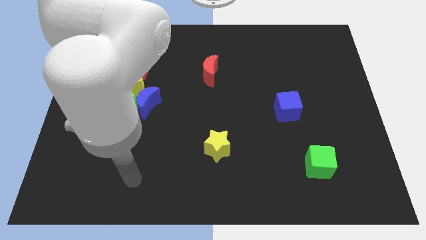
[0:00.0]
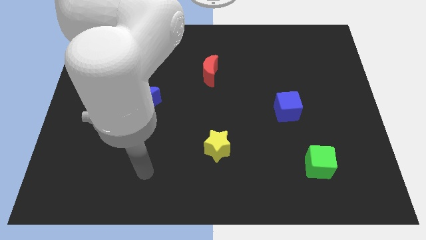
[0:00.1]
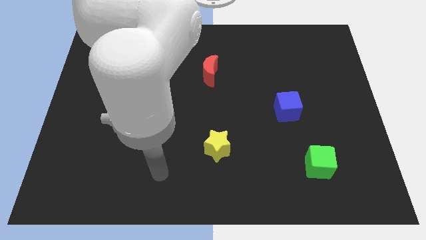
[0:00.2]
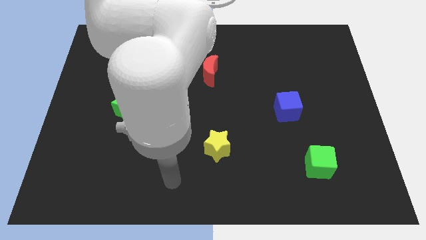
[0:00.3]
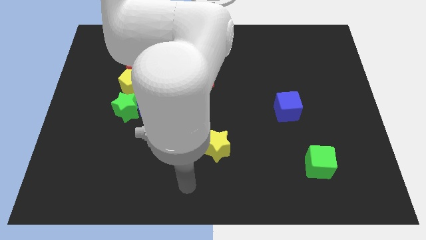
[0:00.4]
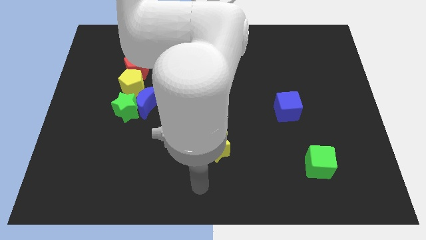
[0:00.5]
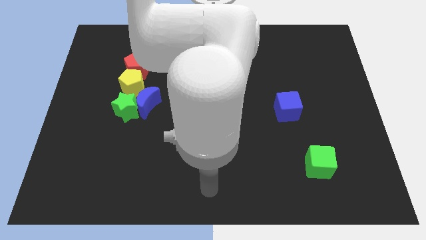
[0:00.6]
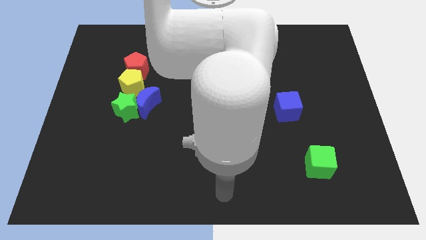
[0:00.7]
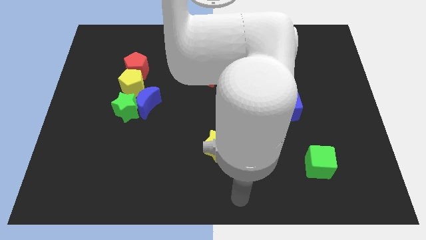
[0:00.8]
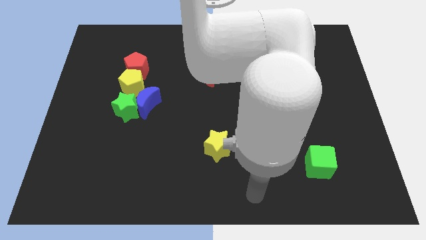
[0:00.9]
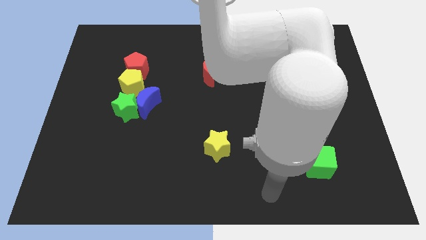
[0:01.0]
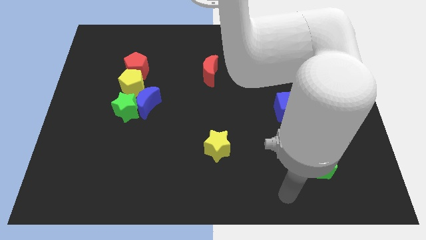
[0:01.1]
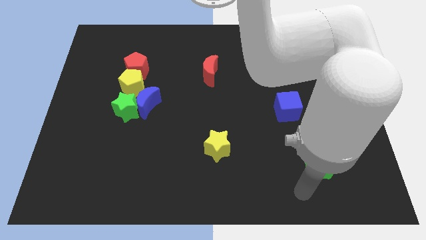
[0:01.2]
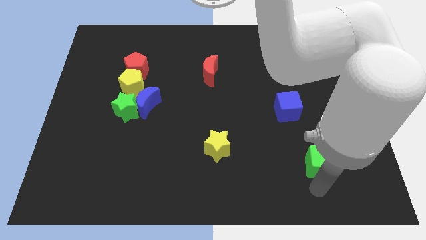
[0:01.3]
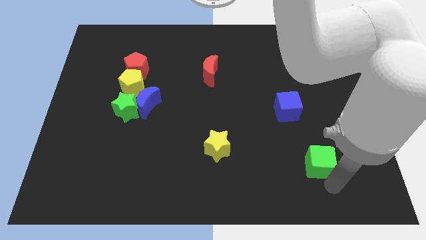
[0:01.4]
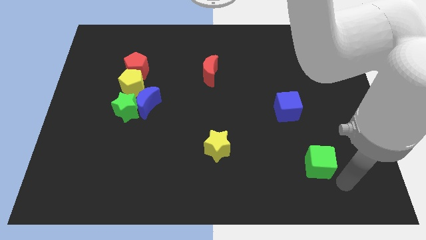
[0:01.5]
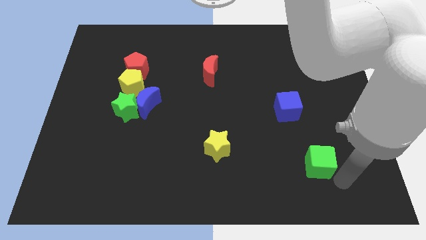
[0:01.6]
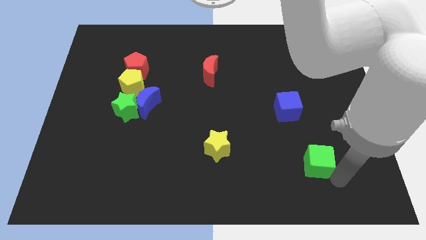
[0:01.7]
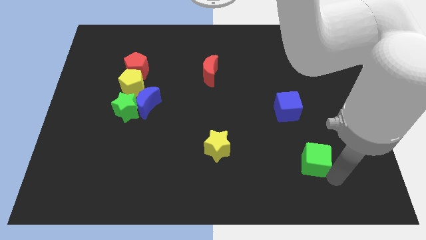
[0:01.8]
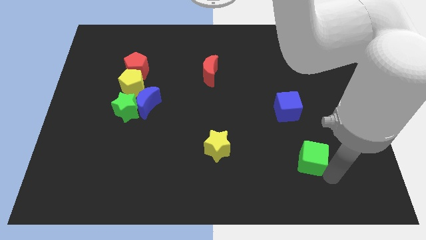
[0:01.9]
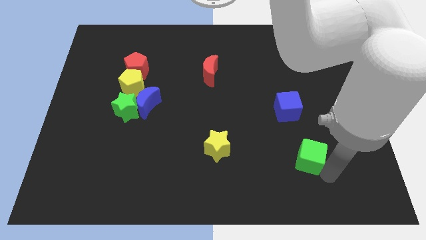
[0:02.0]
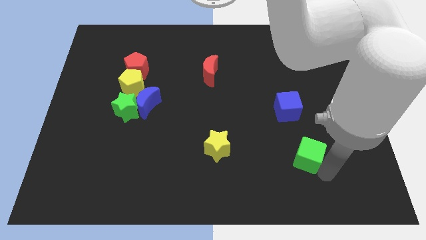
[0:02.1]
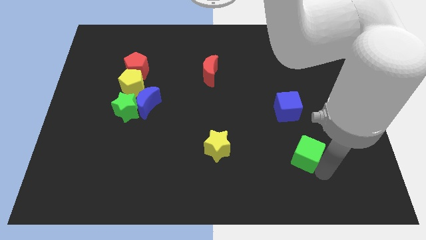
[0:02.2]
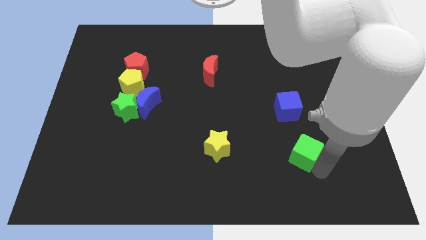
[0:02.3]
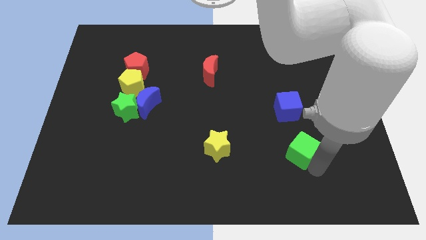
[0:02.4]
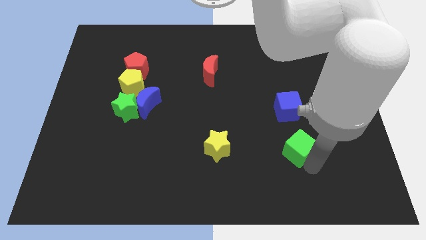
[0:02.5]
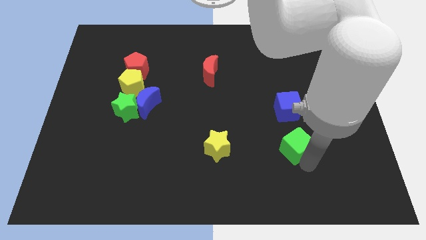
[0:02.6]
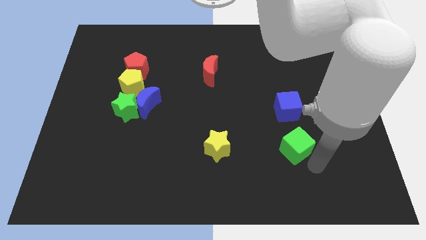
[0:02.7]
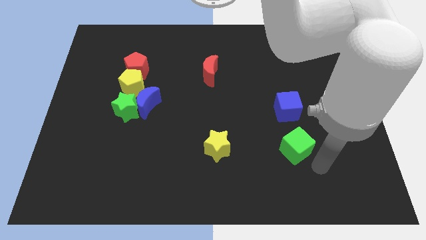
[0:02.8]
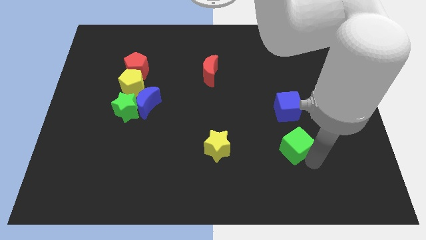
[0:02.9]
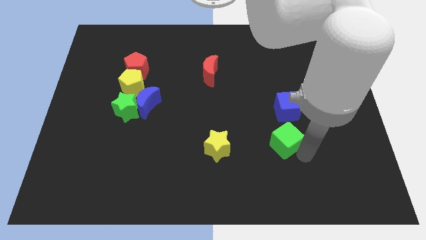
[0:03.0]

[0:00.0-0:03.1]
slide the green cube a bit diagonally upwards and to the left

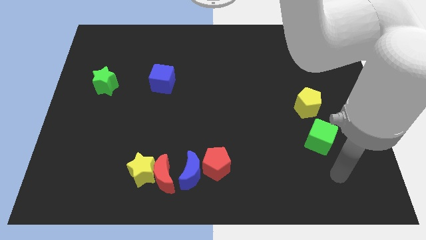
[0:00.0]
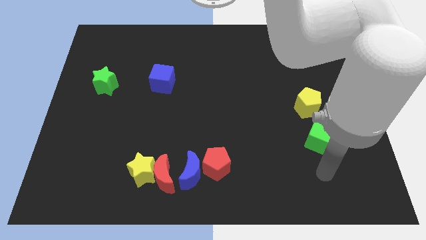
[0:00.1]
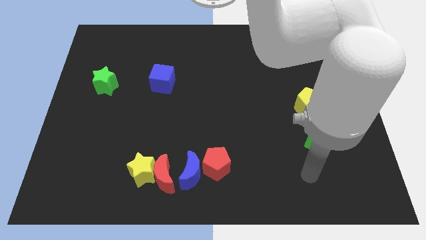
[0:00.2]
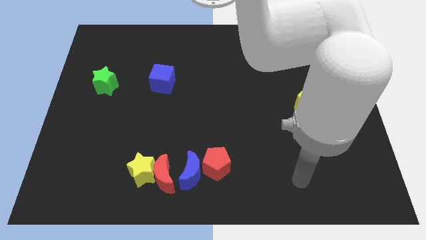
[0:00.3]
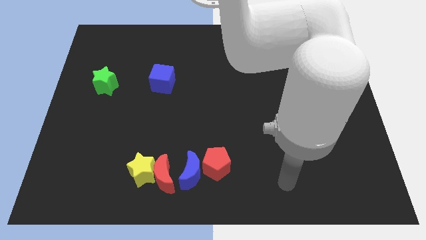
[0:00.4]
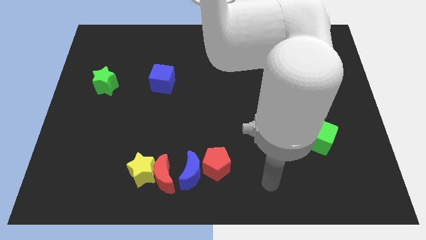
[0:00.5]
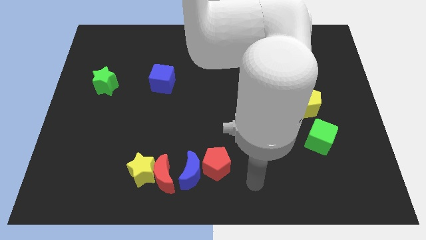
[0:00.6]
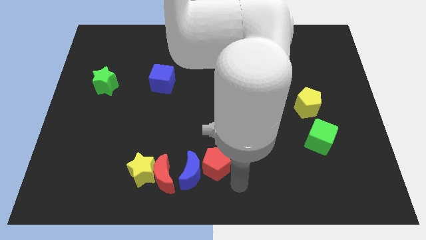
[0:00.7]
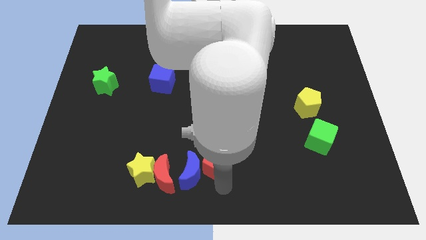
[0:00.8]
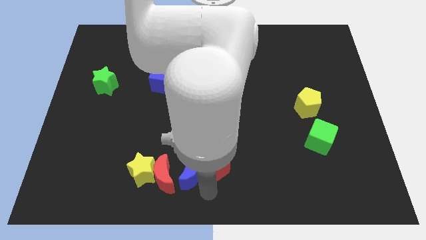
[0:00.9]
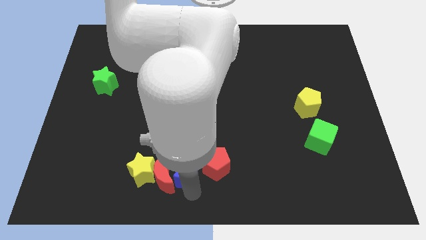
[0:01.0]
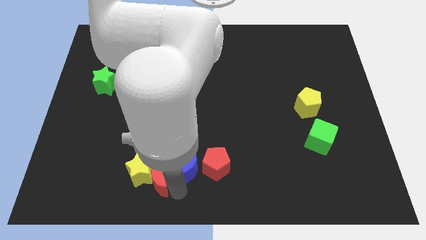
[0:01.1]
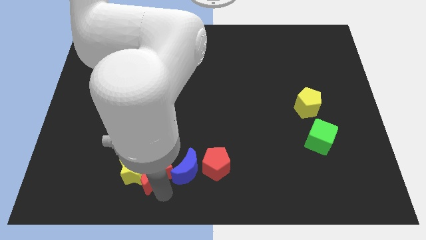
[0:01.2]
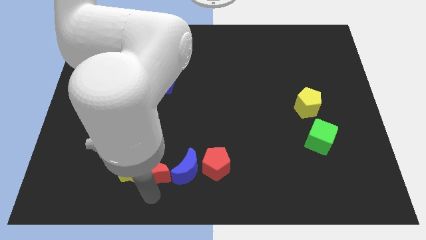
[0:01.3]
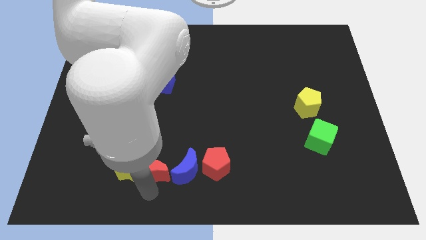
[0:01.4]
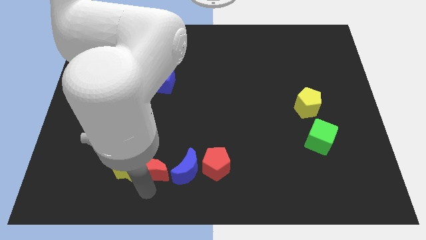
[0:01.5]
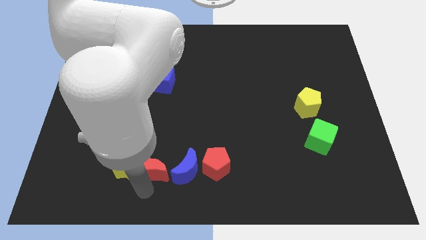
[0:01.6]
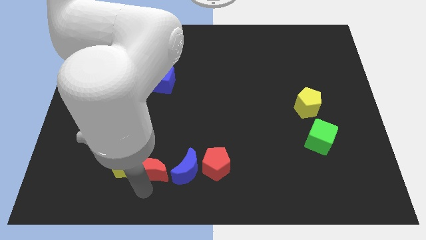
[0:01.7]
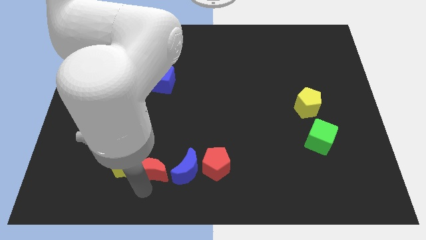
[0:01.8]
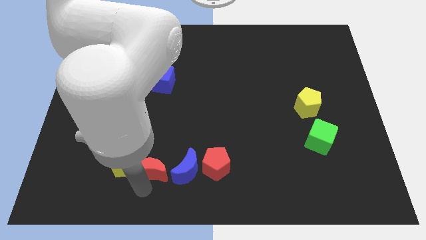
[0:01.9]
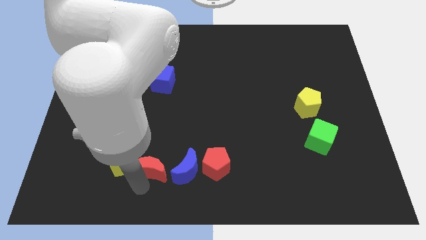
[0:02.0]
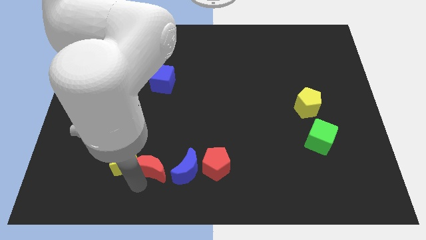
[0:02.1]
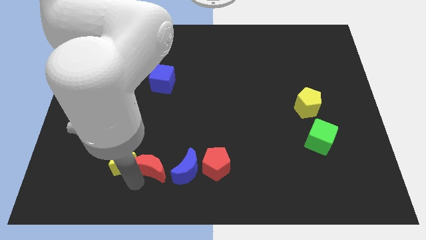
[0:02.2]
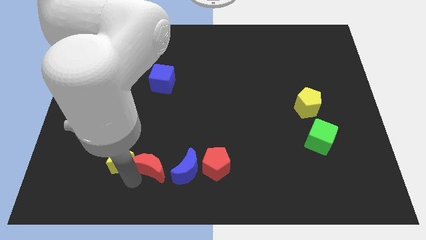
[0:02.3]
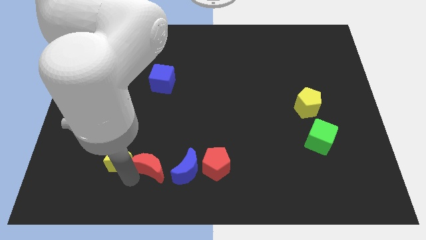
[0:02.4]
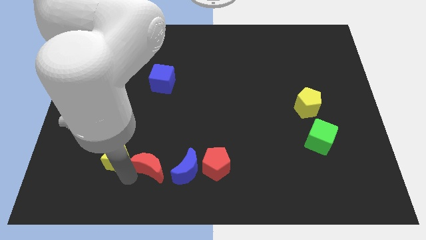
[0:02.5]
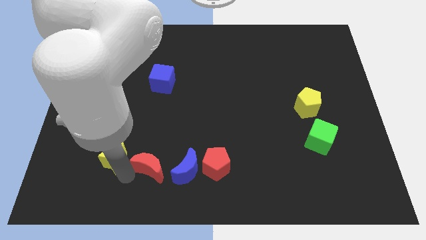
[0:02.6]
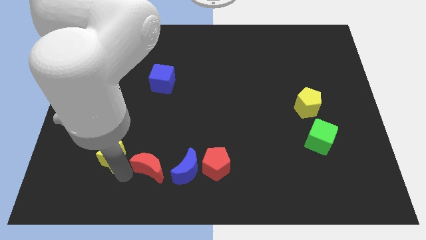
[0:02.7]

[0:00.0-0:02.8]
move the yellow star upwards and to the left diagonally somewhat

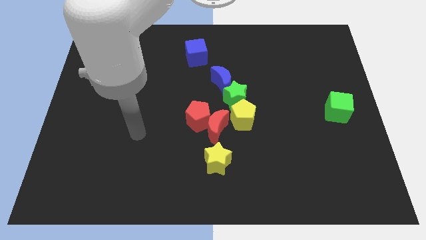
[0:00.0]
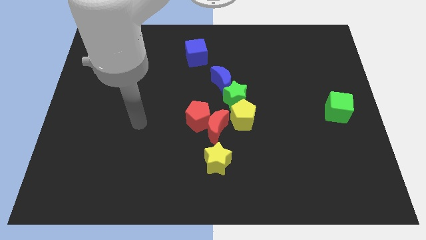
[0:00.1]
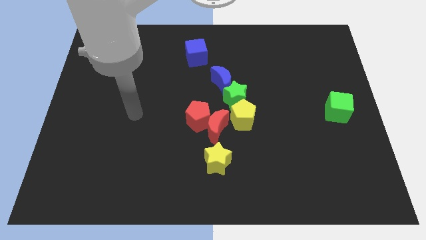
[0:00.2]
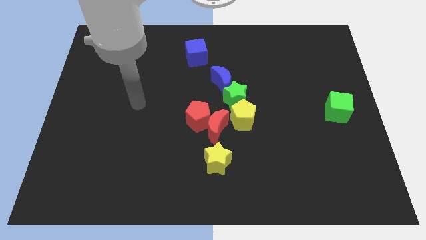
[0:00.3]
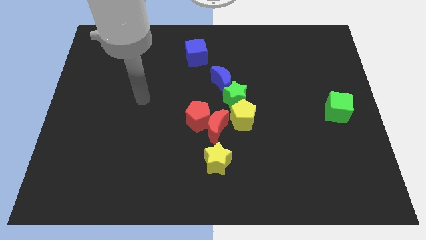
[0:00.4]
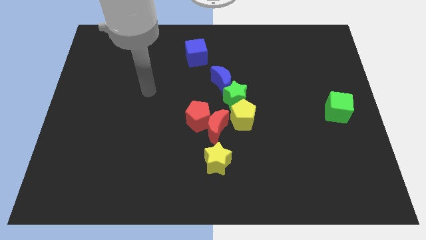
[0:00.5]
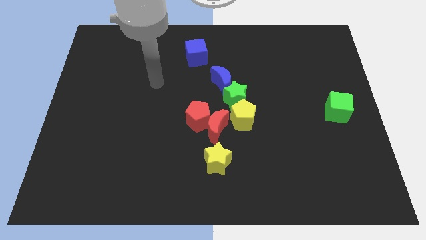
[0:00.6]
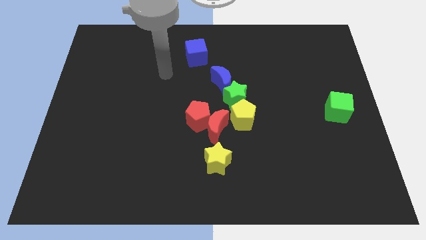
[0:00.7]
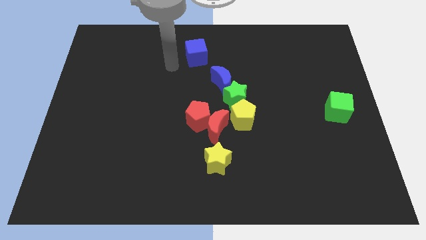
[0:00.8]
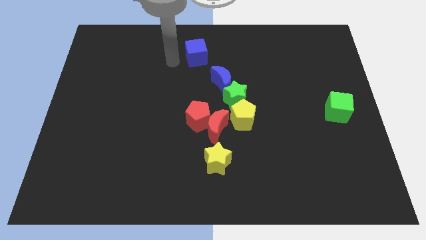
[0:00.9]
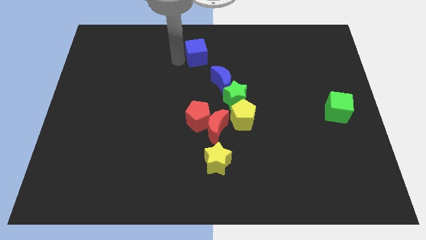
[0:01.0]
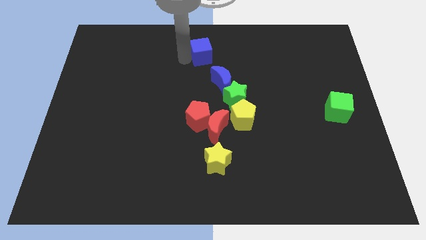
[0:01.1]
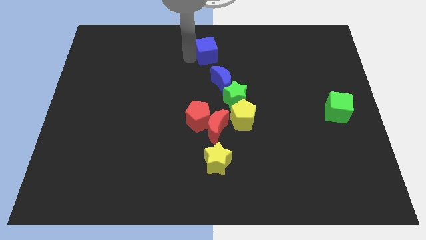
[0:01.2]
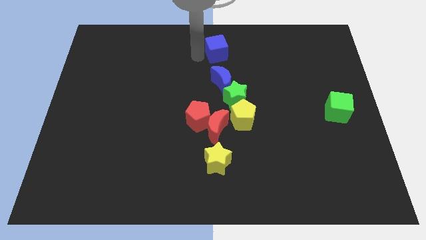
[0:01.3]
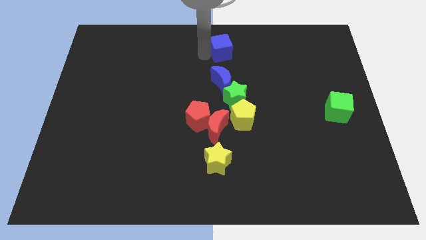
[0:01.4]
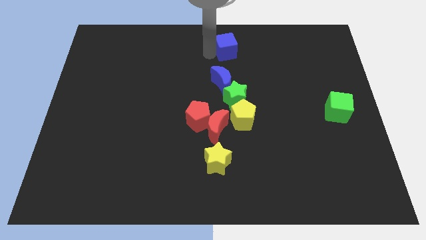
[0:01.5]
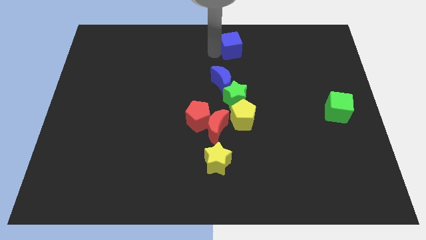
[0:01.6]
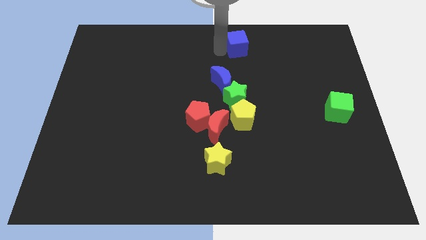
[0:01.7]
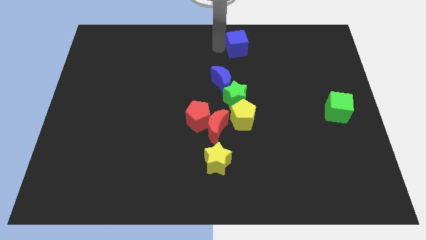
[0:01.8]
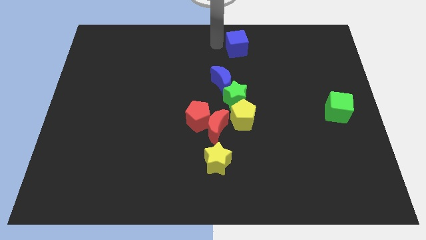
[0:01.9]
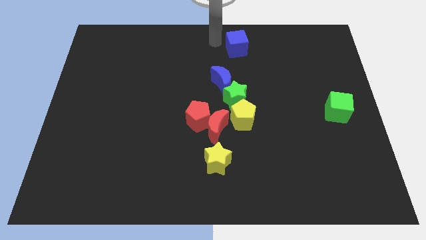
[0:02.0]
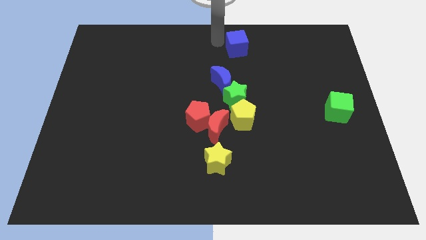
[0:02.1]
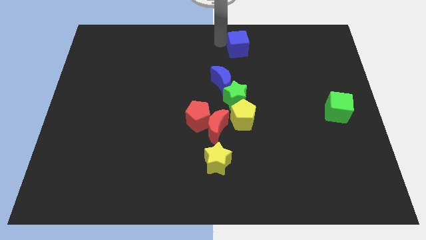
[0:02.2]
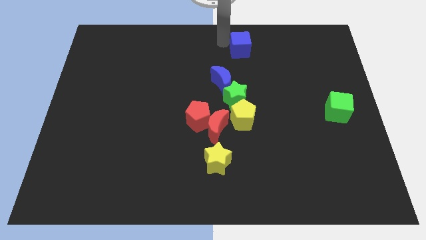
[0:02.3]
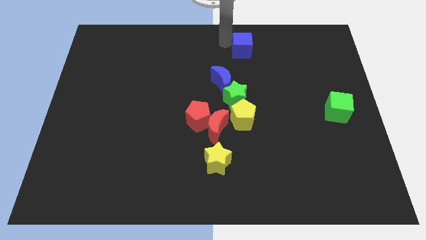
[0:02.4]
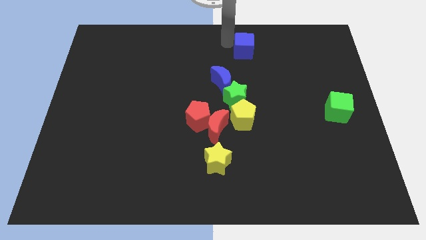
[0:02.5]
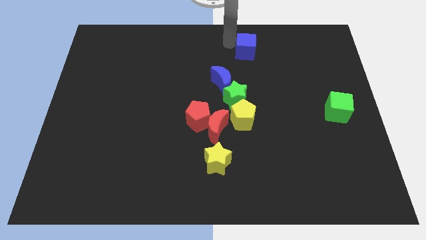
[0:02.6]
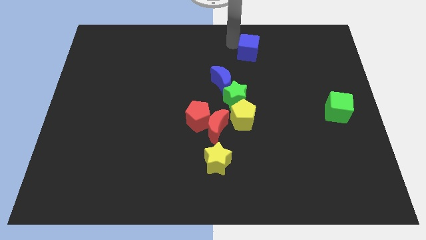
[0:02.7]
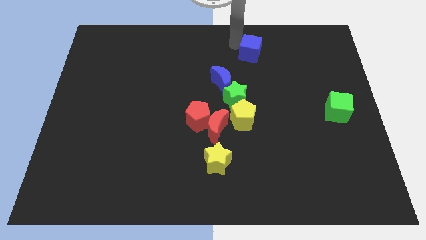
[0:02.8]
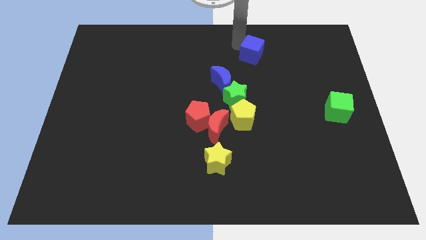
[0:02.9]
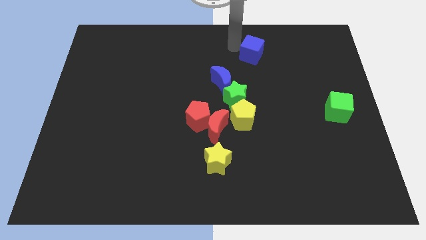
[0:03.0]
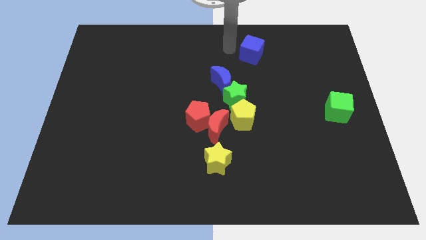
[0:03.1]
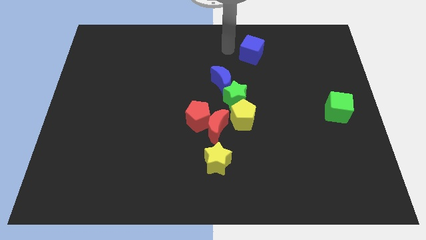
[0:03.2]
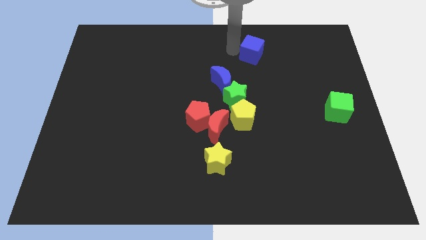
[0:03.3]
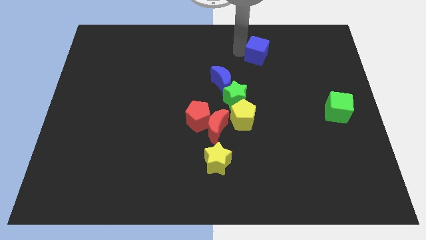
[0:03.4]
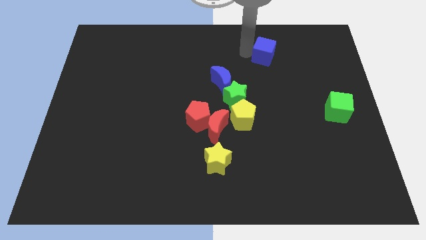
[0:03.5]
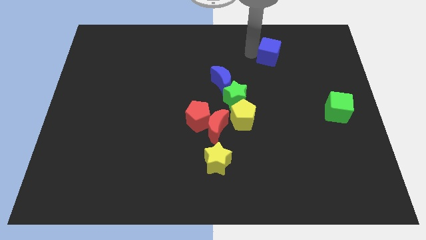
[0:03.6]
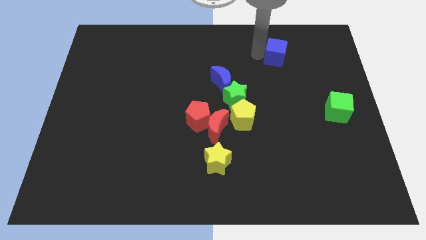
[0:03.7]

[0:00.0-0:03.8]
slide the blue cube to the right
